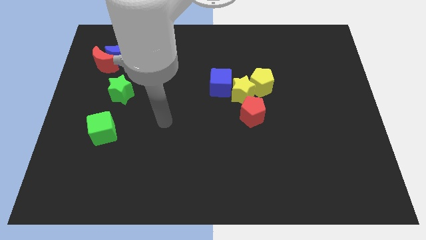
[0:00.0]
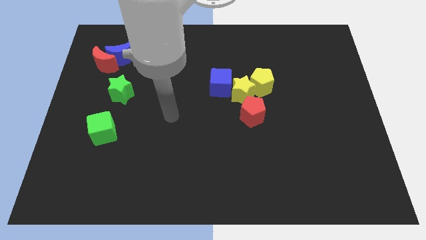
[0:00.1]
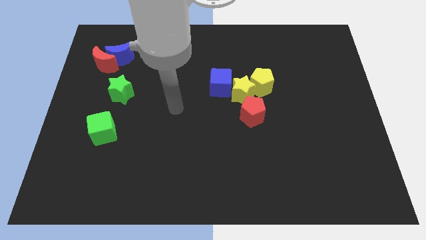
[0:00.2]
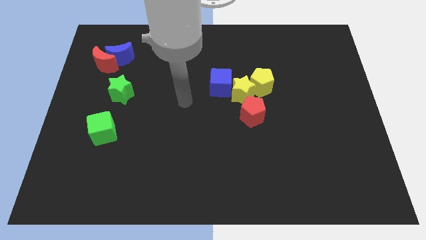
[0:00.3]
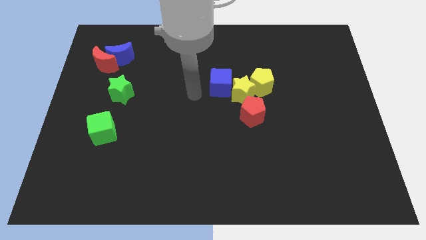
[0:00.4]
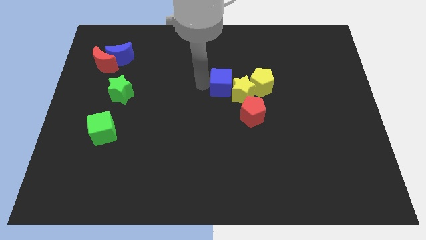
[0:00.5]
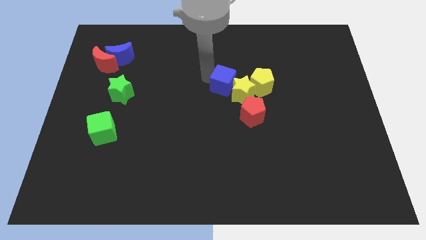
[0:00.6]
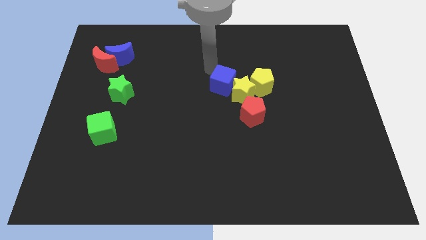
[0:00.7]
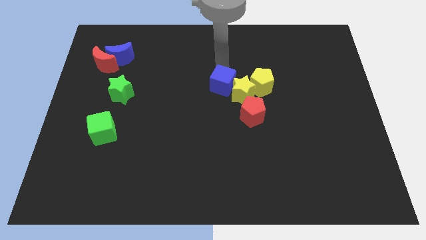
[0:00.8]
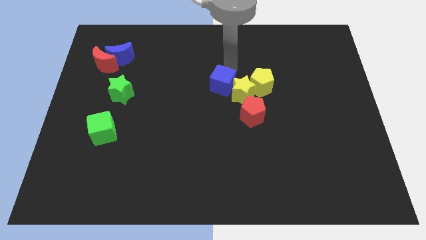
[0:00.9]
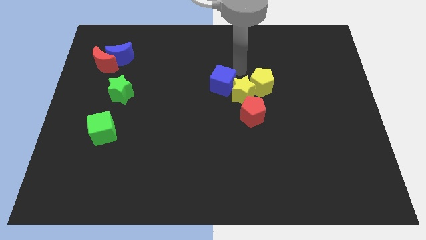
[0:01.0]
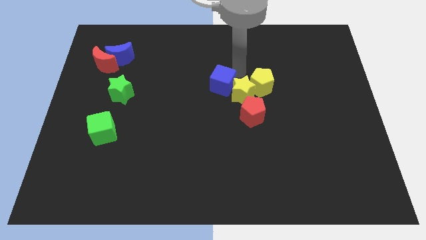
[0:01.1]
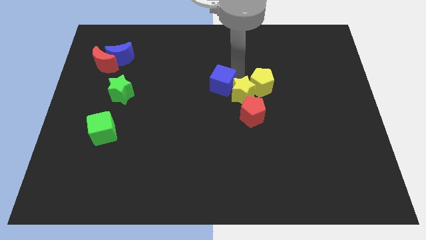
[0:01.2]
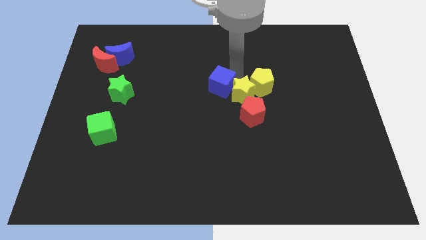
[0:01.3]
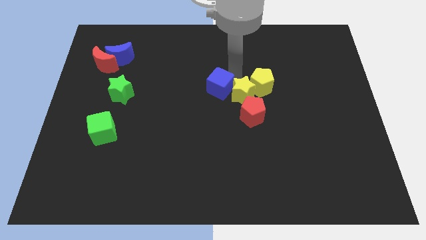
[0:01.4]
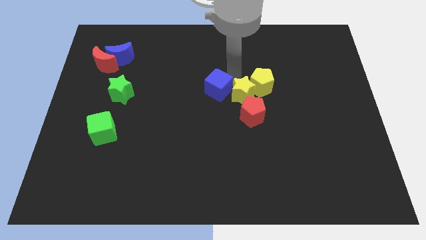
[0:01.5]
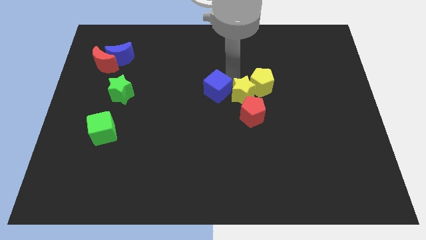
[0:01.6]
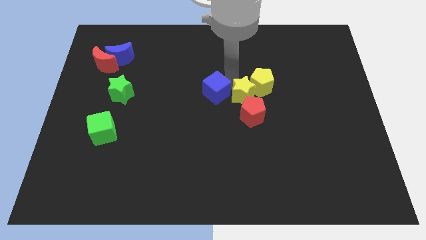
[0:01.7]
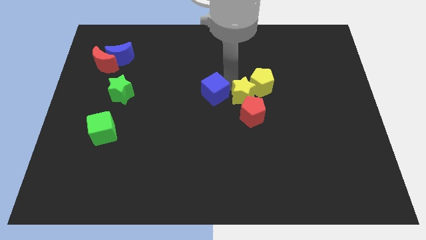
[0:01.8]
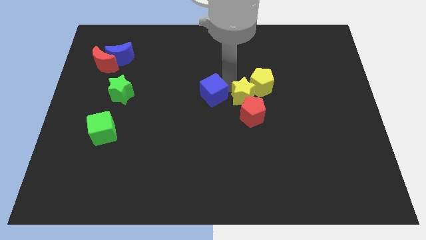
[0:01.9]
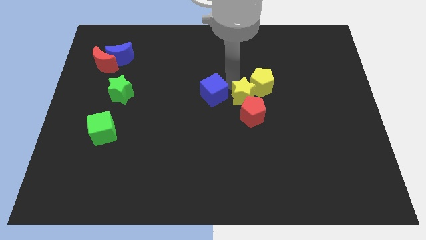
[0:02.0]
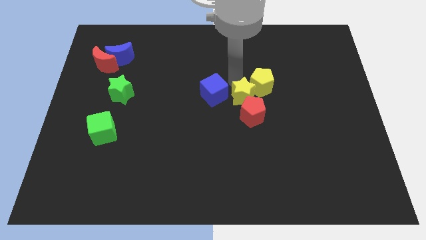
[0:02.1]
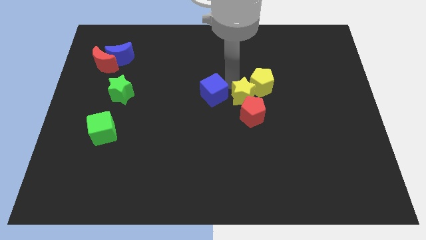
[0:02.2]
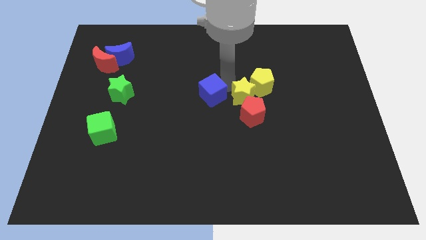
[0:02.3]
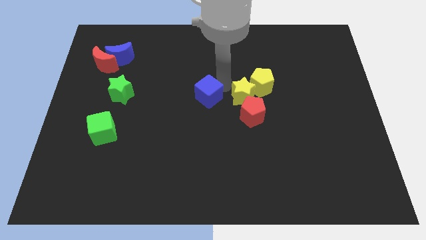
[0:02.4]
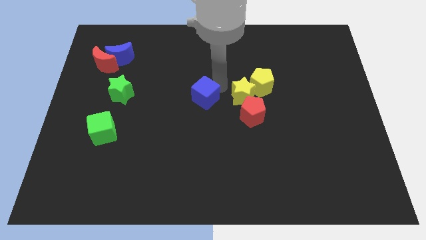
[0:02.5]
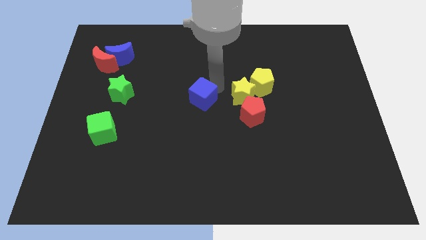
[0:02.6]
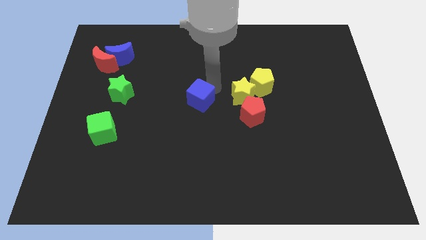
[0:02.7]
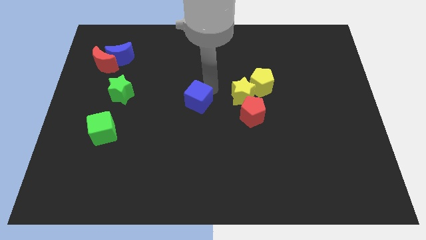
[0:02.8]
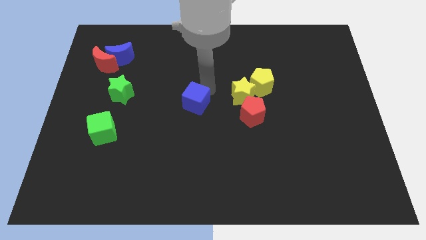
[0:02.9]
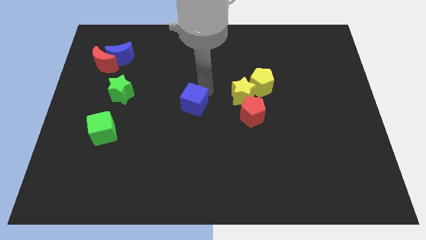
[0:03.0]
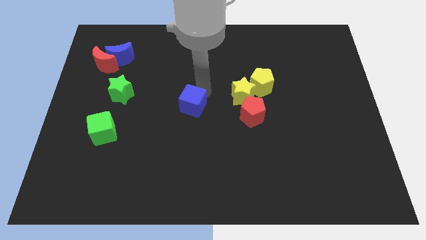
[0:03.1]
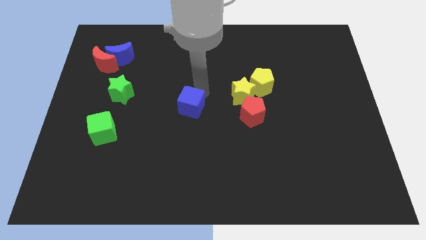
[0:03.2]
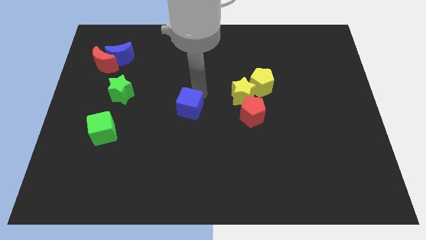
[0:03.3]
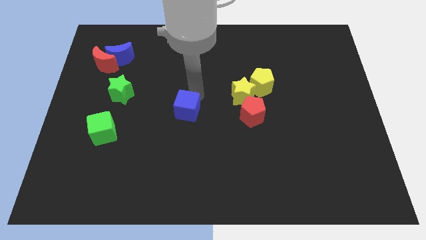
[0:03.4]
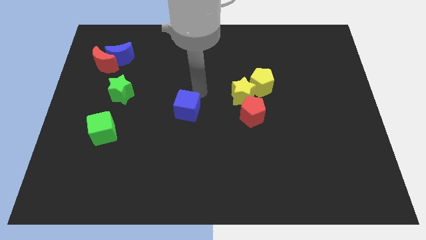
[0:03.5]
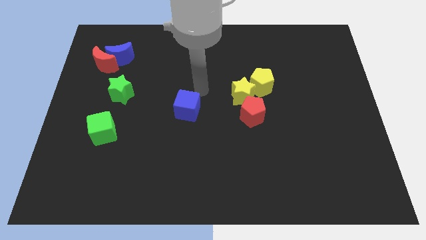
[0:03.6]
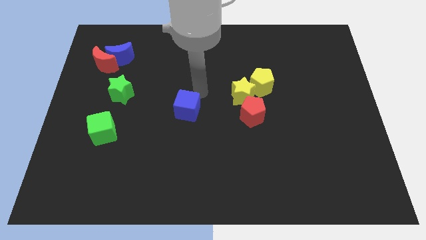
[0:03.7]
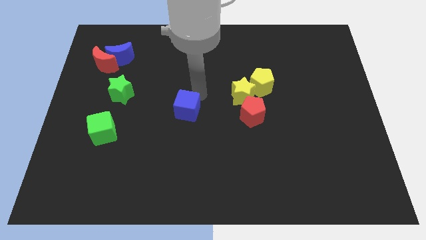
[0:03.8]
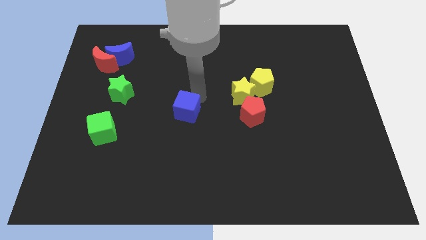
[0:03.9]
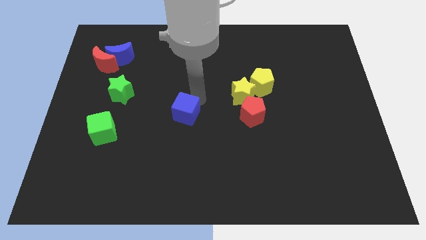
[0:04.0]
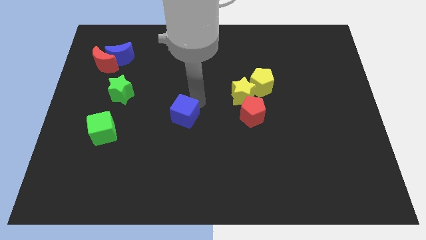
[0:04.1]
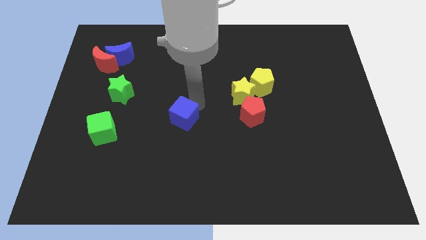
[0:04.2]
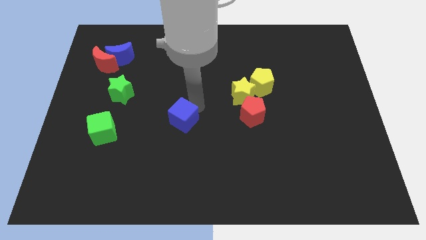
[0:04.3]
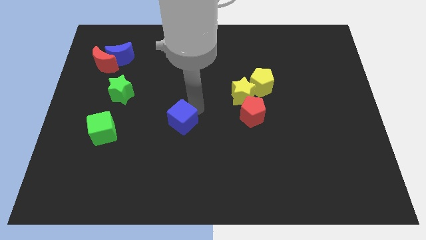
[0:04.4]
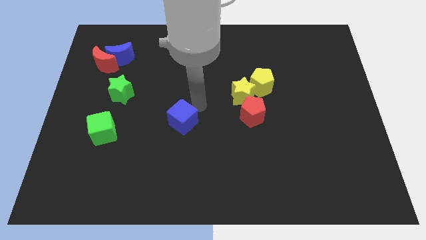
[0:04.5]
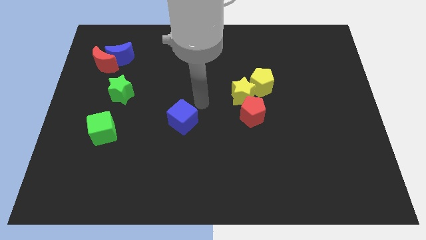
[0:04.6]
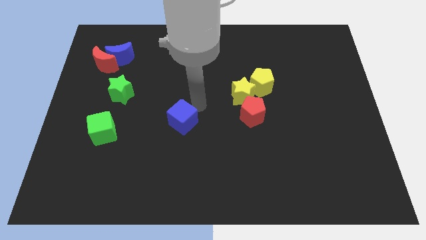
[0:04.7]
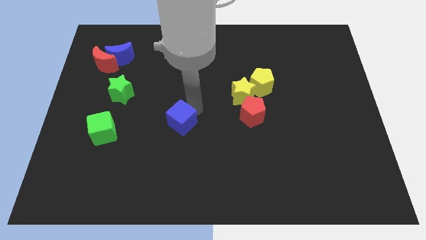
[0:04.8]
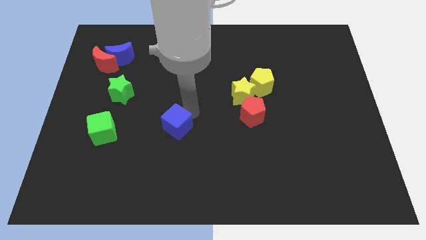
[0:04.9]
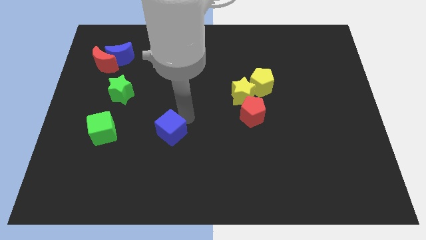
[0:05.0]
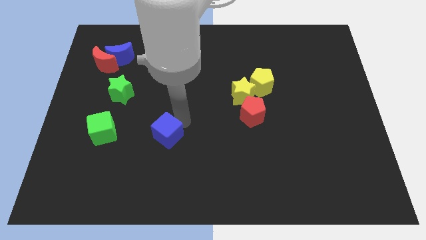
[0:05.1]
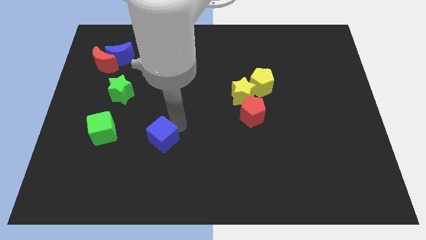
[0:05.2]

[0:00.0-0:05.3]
move the blue cube down and to the left diagonally

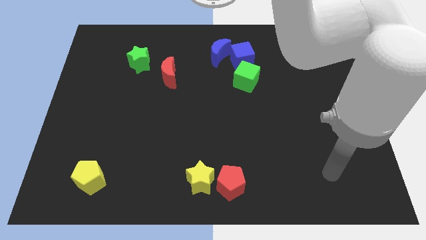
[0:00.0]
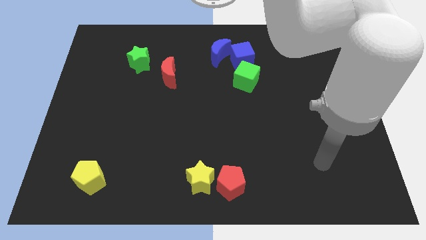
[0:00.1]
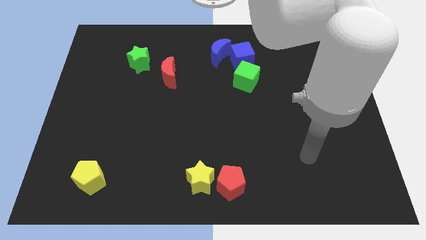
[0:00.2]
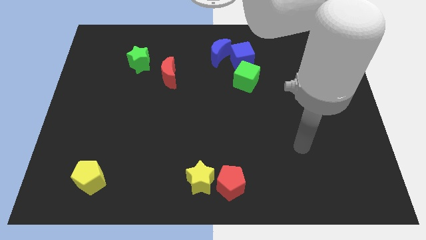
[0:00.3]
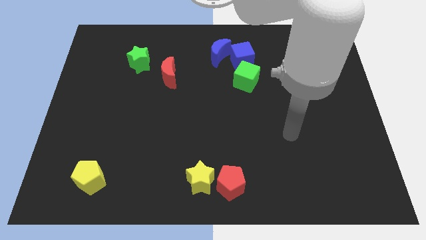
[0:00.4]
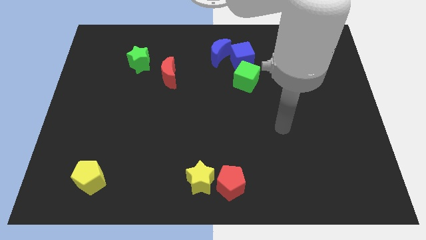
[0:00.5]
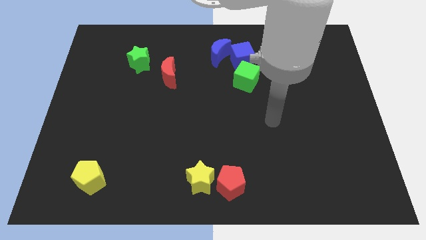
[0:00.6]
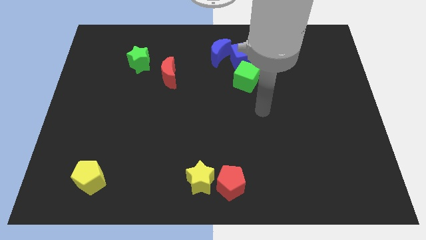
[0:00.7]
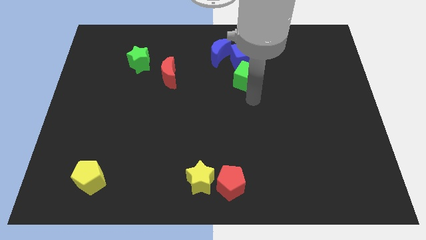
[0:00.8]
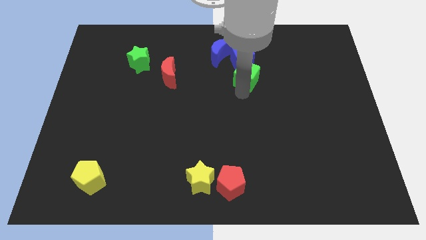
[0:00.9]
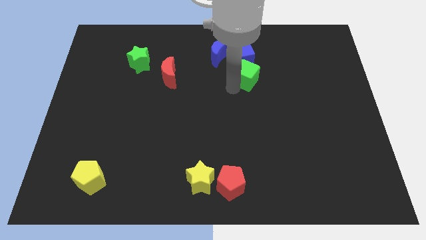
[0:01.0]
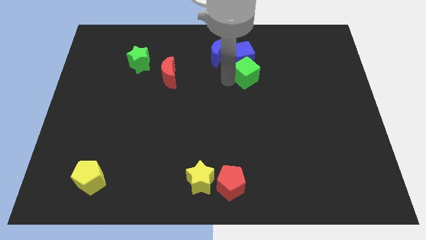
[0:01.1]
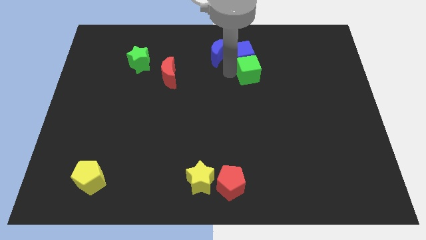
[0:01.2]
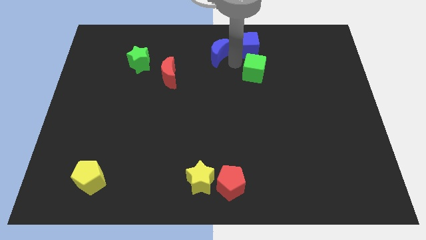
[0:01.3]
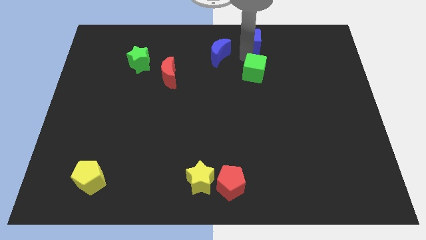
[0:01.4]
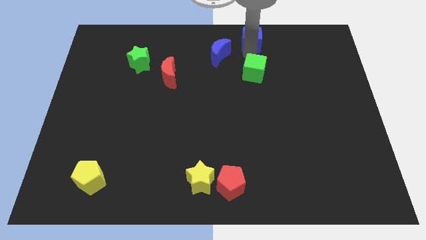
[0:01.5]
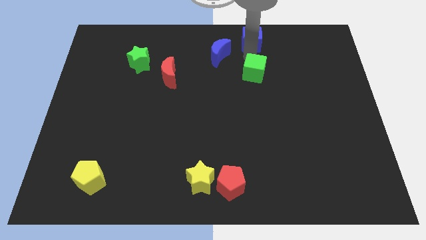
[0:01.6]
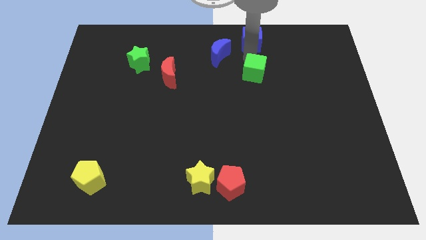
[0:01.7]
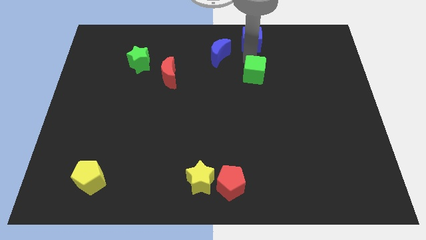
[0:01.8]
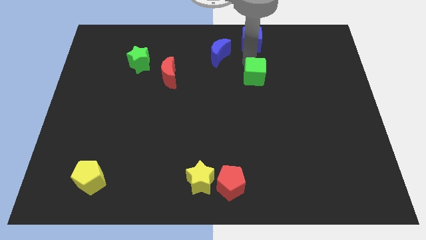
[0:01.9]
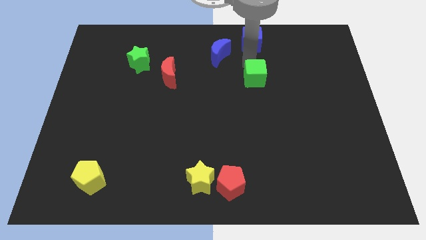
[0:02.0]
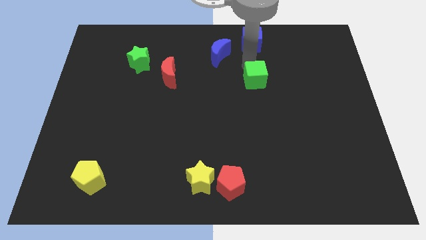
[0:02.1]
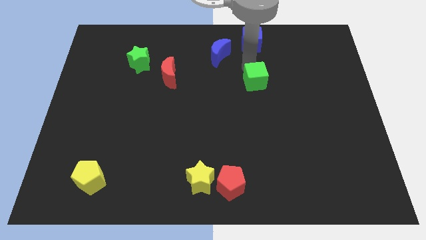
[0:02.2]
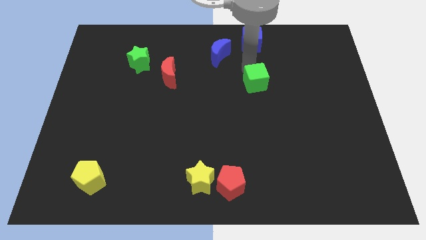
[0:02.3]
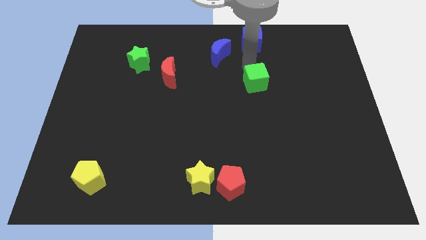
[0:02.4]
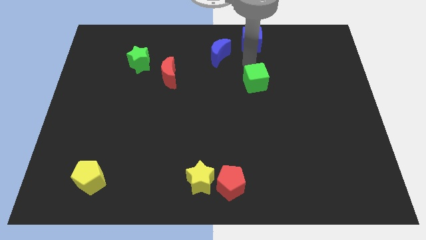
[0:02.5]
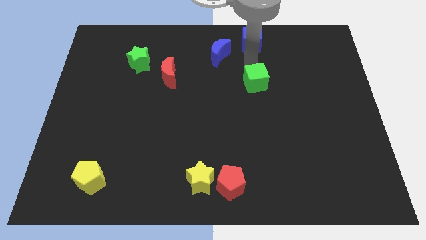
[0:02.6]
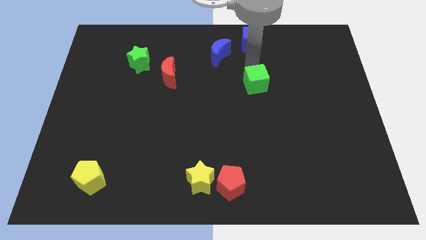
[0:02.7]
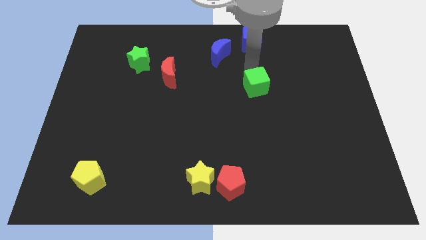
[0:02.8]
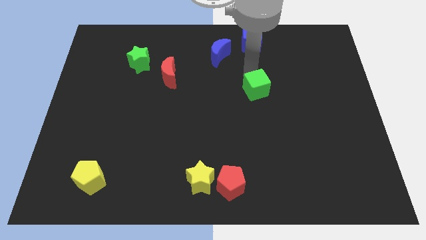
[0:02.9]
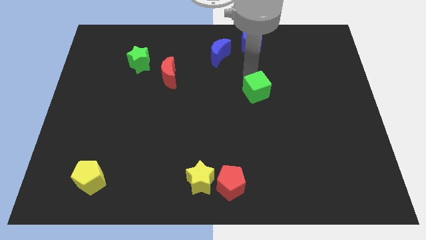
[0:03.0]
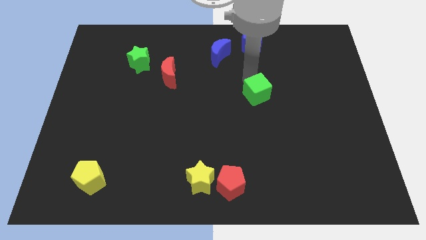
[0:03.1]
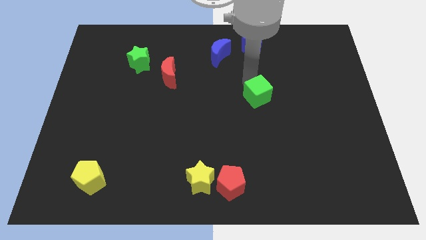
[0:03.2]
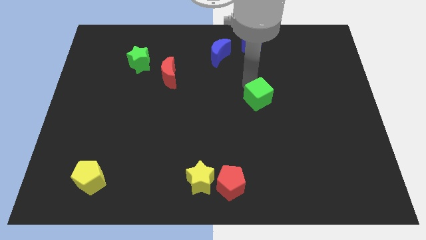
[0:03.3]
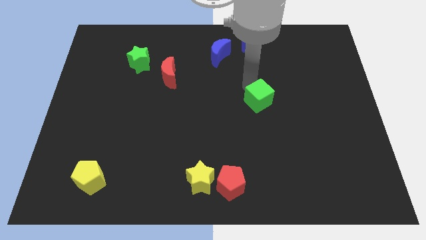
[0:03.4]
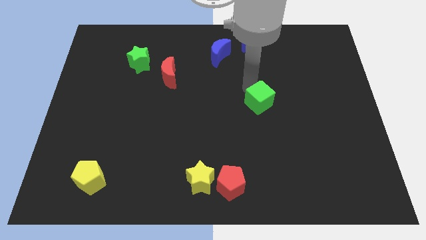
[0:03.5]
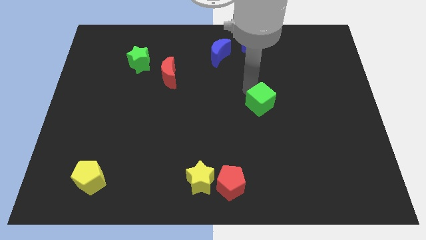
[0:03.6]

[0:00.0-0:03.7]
push the green cube diagonally downwards and to the right a little bit
